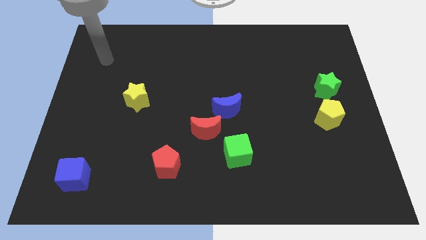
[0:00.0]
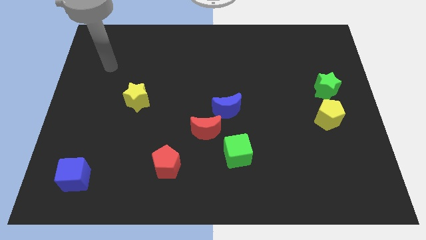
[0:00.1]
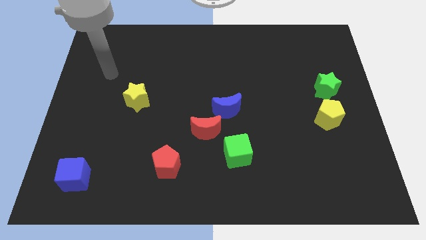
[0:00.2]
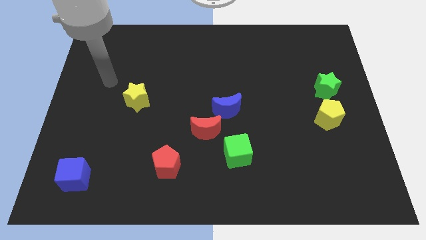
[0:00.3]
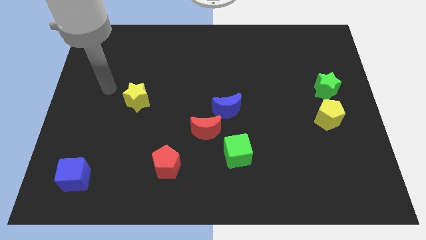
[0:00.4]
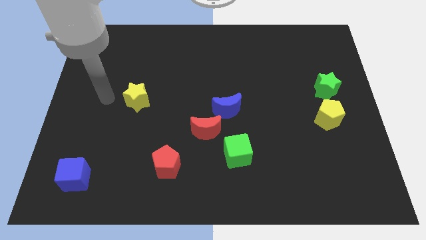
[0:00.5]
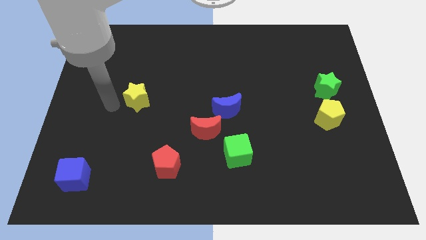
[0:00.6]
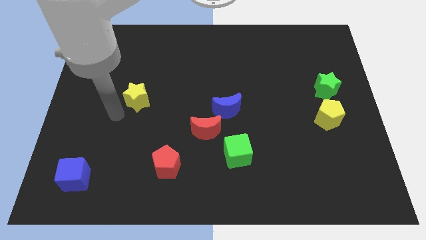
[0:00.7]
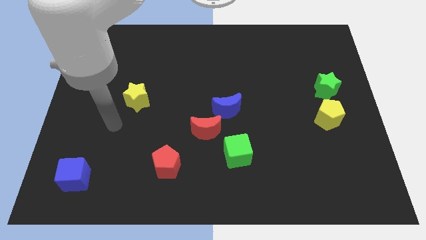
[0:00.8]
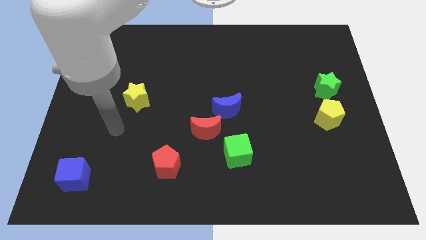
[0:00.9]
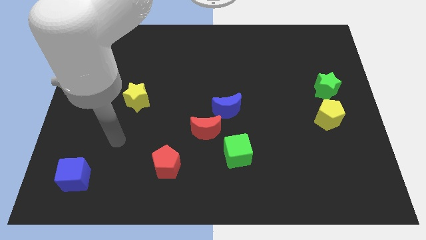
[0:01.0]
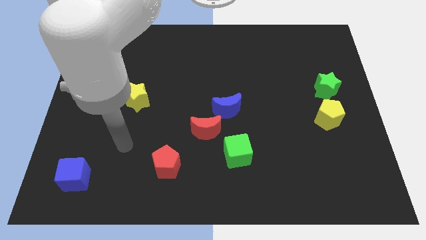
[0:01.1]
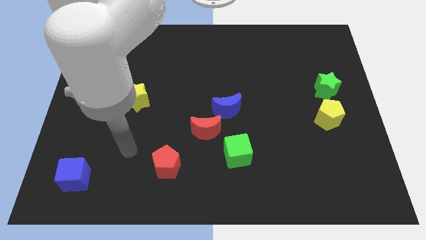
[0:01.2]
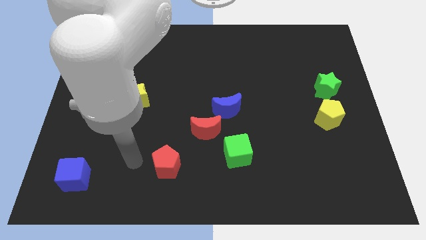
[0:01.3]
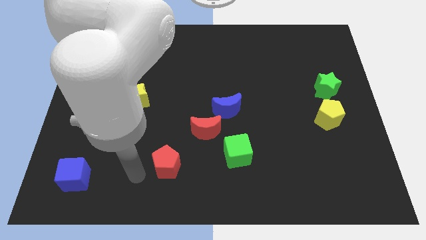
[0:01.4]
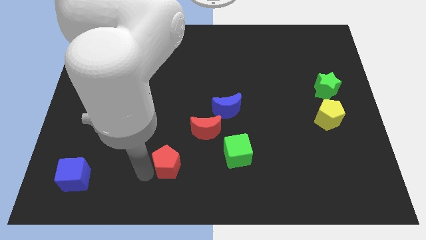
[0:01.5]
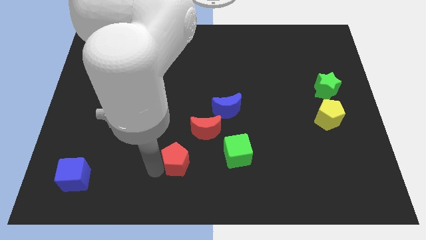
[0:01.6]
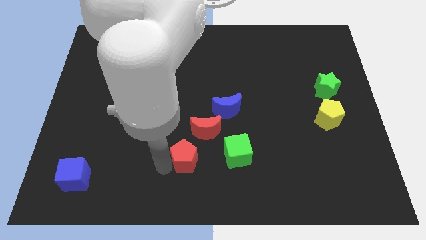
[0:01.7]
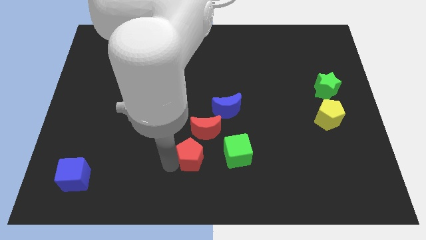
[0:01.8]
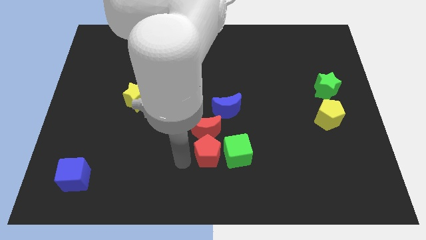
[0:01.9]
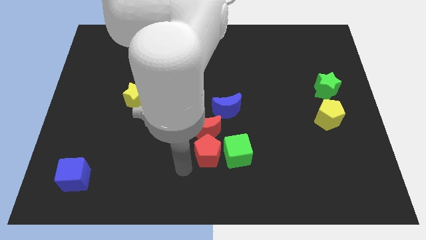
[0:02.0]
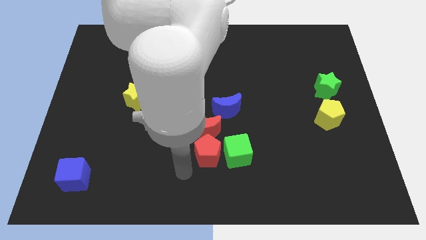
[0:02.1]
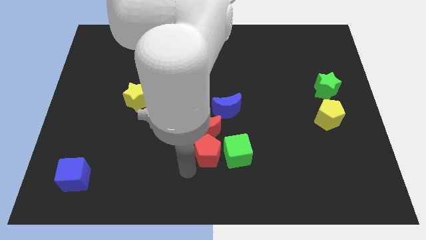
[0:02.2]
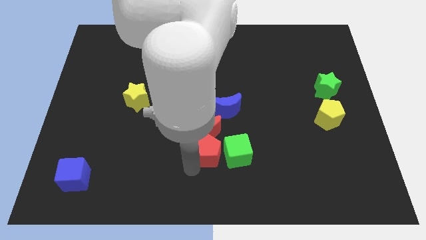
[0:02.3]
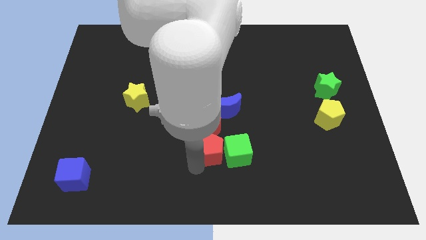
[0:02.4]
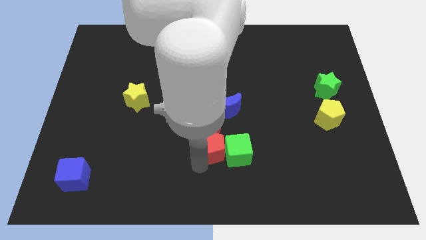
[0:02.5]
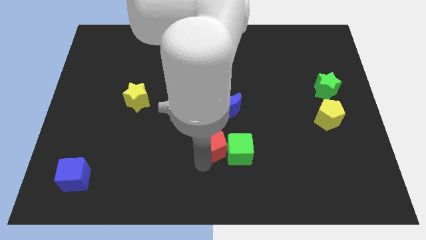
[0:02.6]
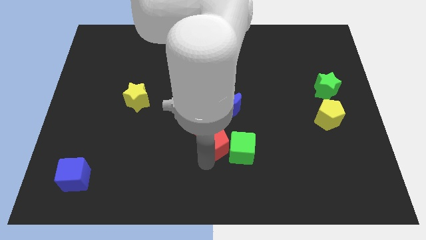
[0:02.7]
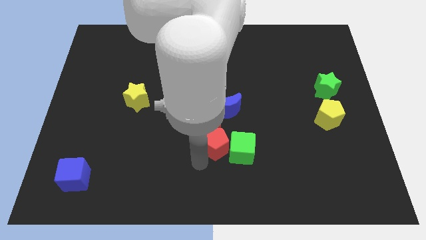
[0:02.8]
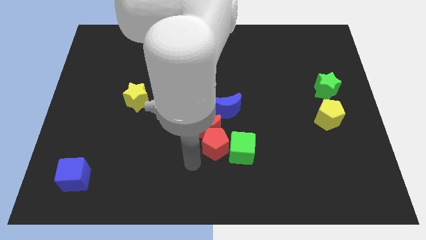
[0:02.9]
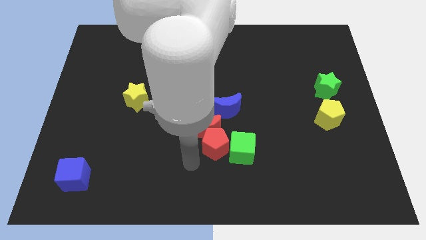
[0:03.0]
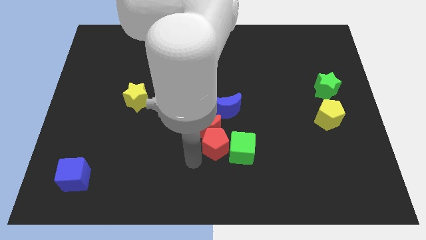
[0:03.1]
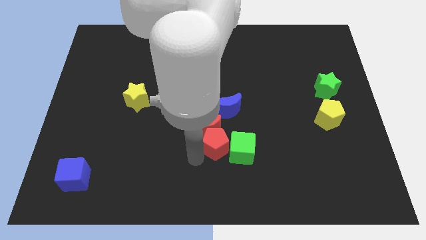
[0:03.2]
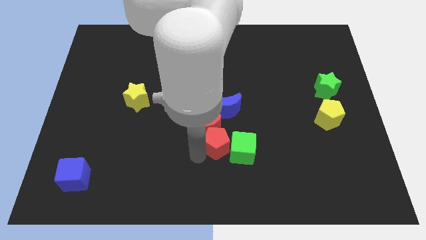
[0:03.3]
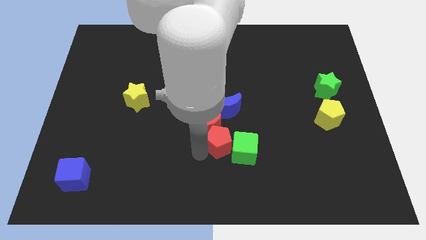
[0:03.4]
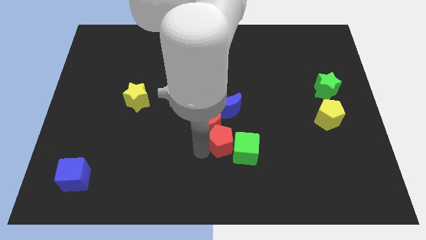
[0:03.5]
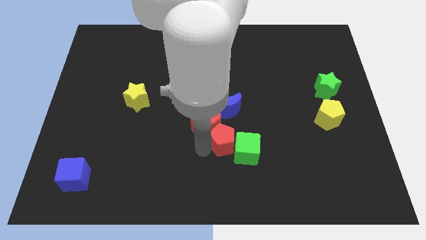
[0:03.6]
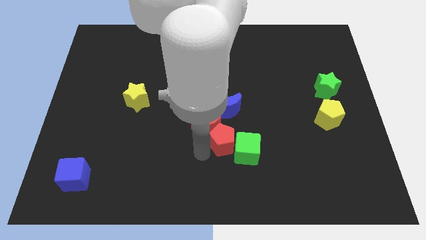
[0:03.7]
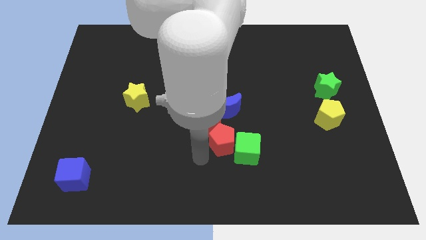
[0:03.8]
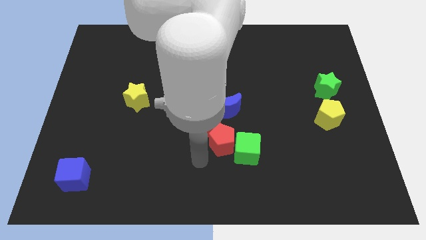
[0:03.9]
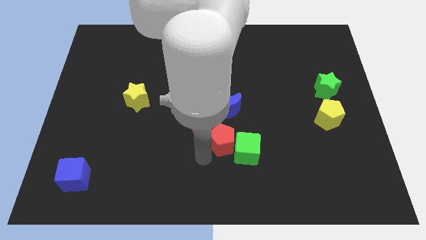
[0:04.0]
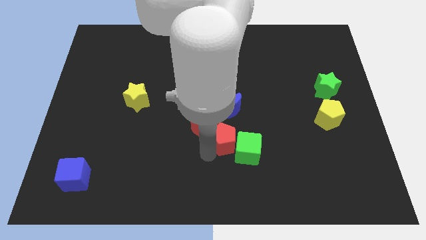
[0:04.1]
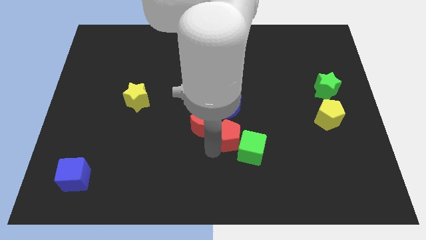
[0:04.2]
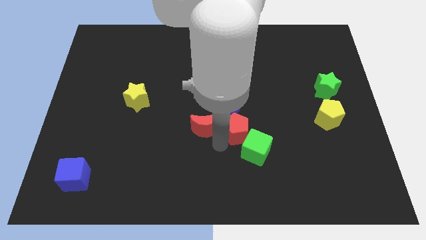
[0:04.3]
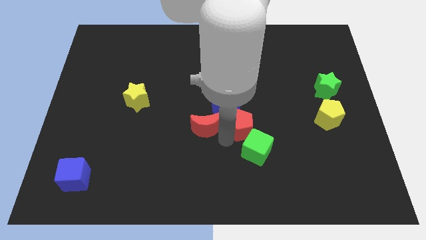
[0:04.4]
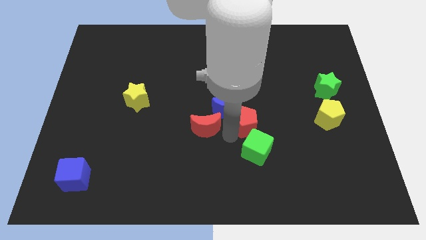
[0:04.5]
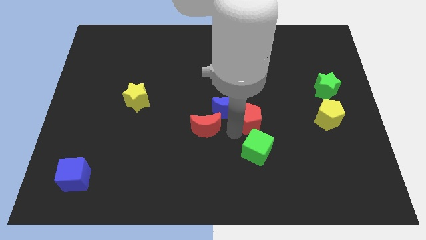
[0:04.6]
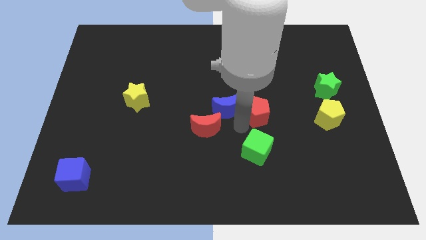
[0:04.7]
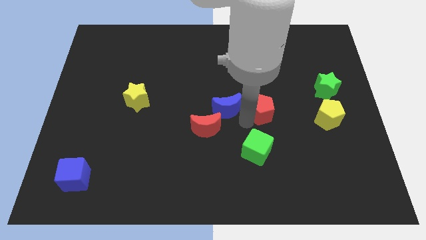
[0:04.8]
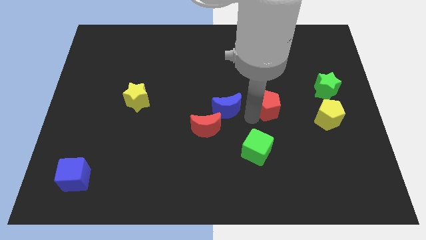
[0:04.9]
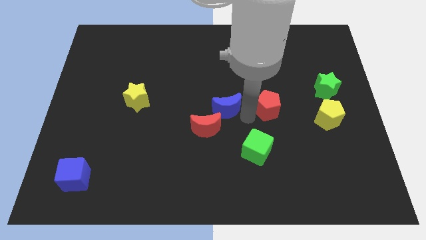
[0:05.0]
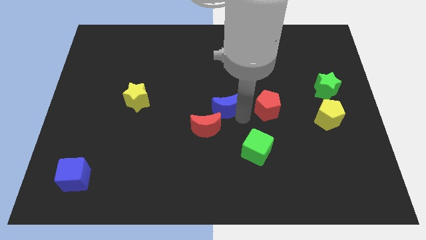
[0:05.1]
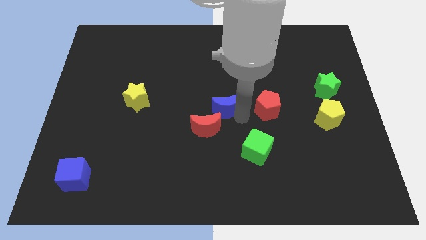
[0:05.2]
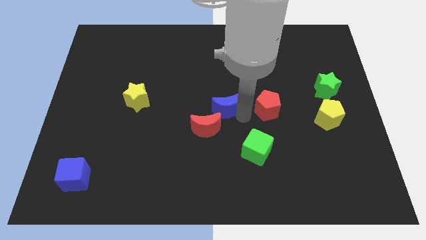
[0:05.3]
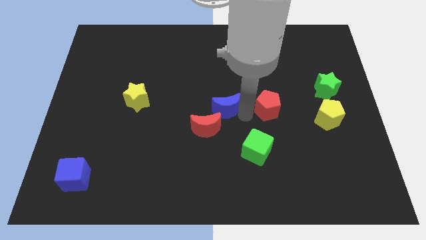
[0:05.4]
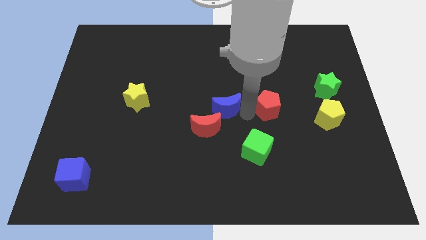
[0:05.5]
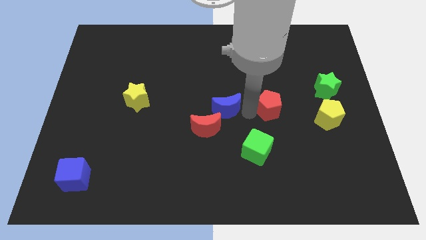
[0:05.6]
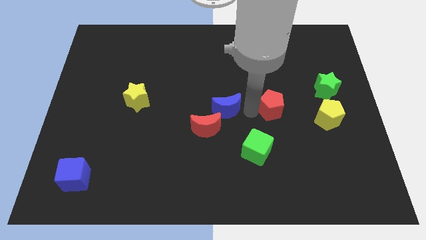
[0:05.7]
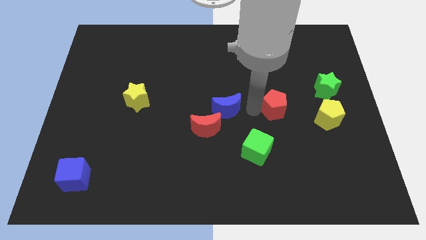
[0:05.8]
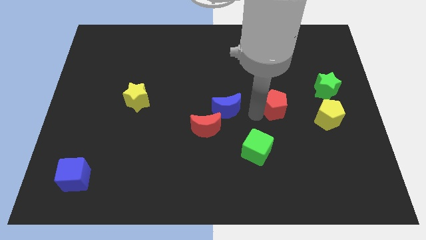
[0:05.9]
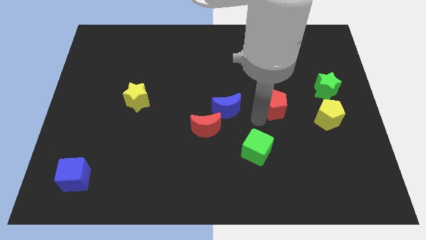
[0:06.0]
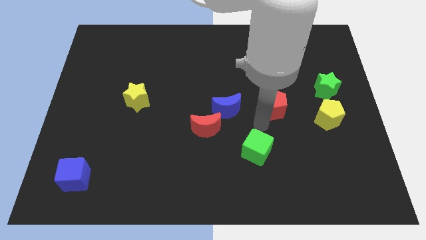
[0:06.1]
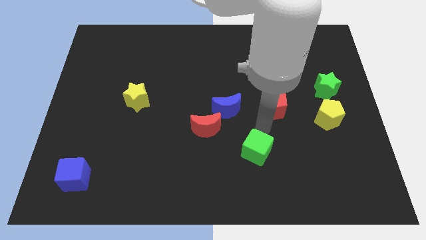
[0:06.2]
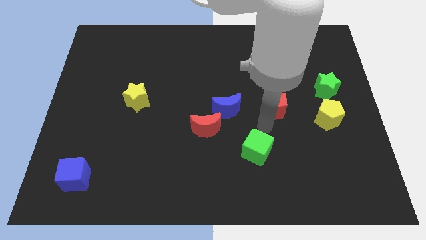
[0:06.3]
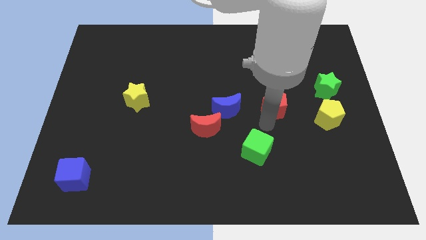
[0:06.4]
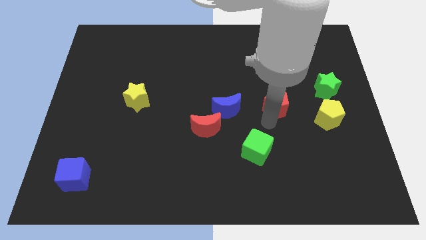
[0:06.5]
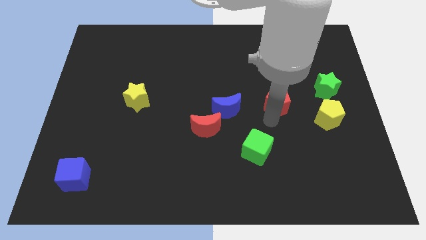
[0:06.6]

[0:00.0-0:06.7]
slide the red pentagon just left of the green star

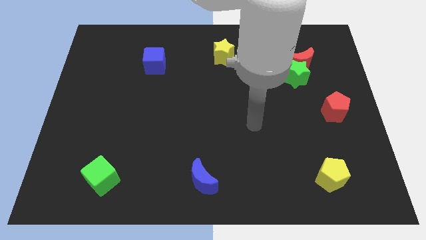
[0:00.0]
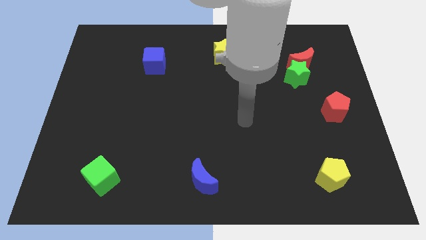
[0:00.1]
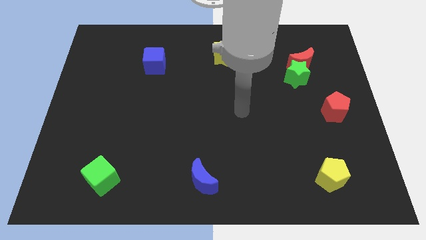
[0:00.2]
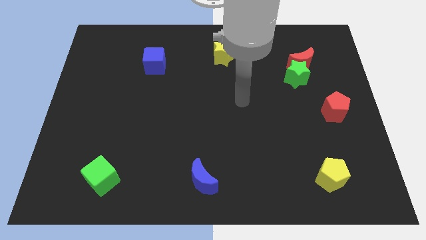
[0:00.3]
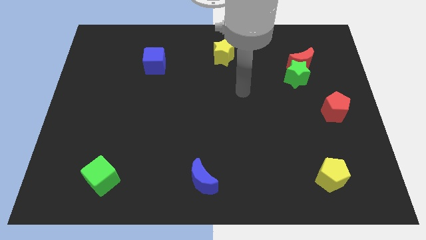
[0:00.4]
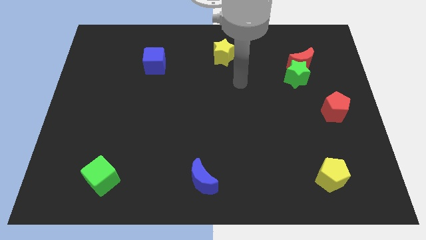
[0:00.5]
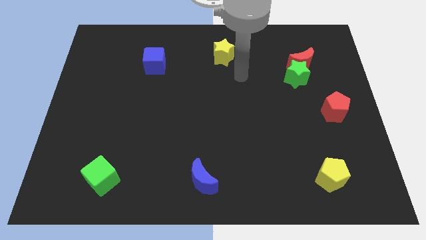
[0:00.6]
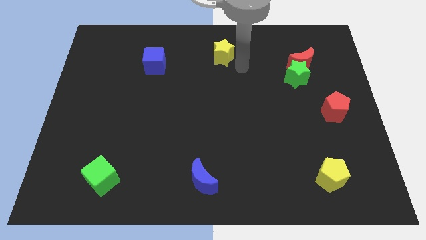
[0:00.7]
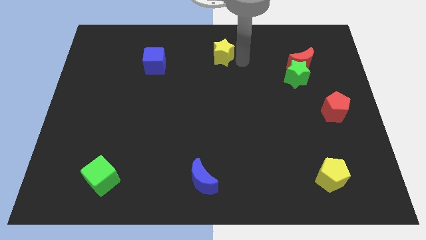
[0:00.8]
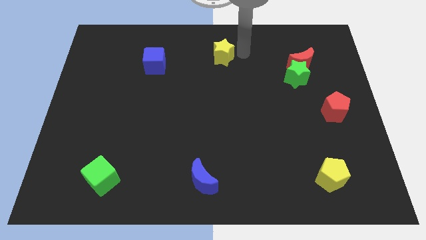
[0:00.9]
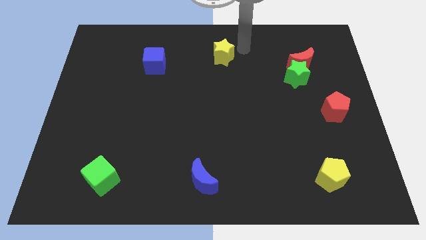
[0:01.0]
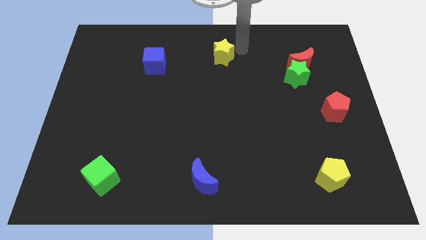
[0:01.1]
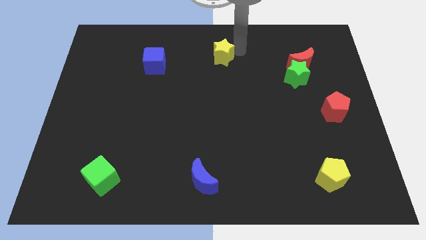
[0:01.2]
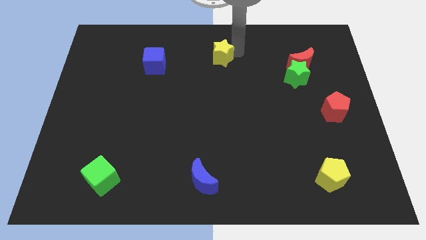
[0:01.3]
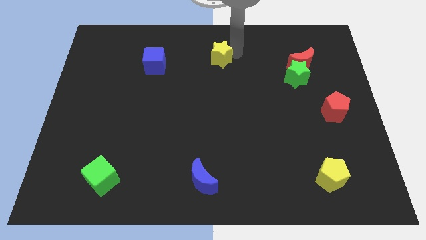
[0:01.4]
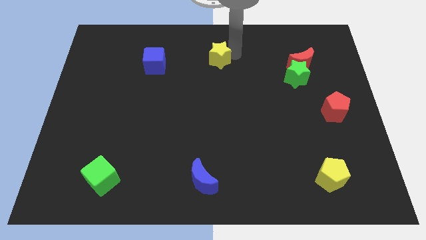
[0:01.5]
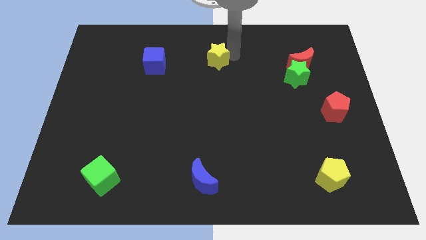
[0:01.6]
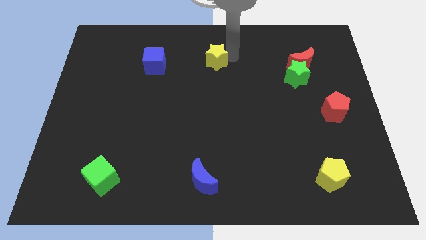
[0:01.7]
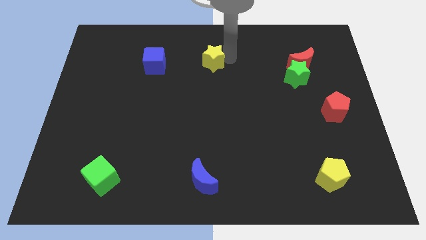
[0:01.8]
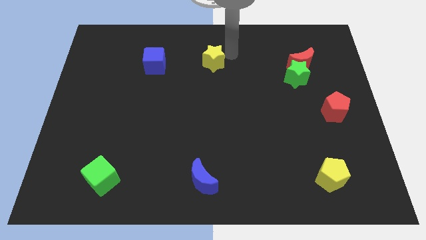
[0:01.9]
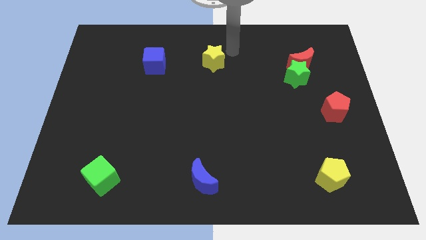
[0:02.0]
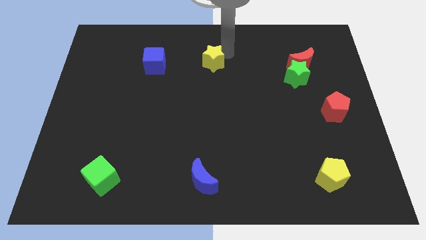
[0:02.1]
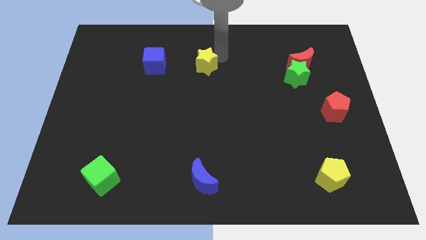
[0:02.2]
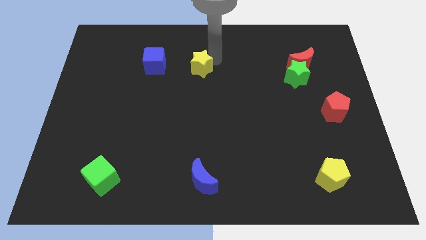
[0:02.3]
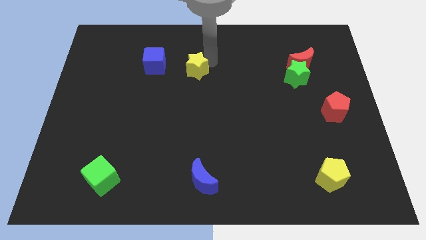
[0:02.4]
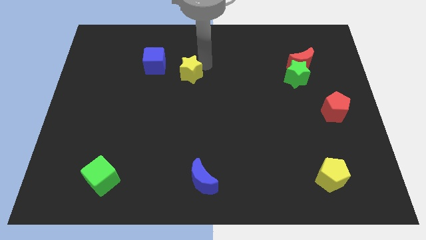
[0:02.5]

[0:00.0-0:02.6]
put the yellow star to the bottom right of the blue cube
